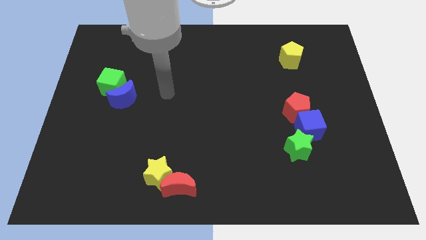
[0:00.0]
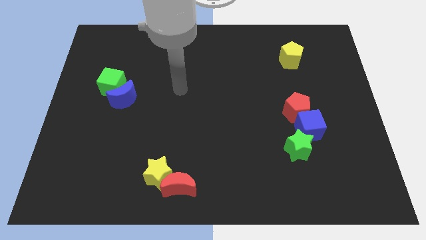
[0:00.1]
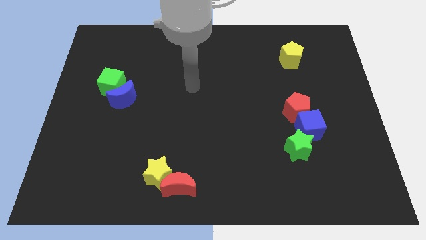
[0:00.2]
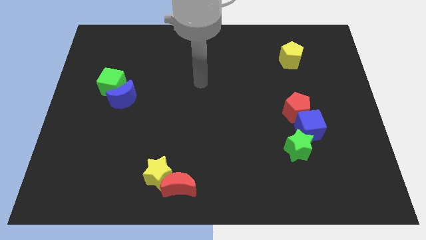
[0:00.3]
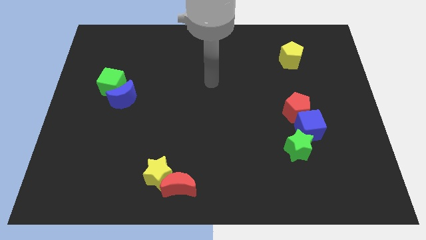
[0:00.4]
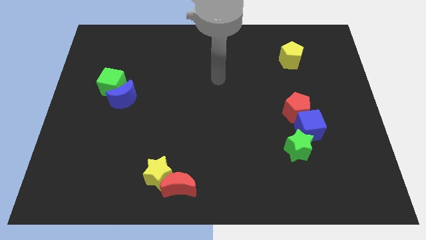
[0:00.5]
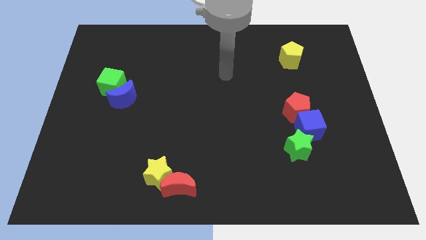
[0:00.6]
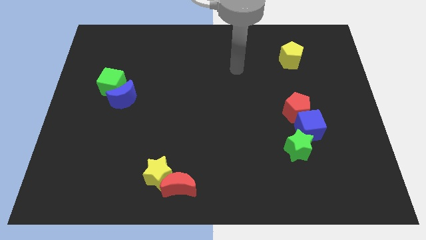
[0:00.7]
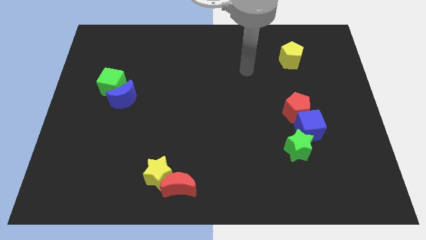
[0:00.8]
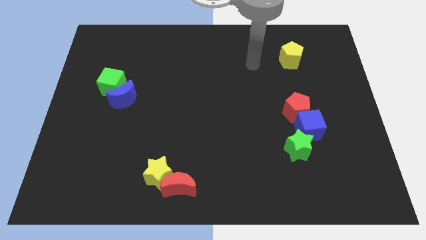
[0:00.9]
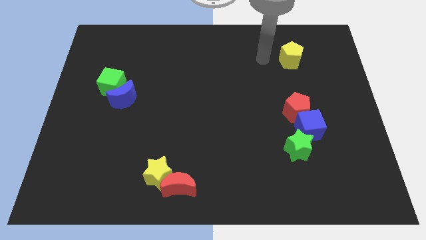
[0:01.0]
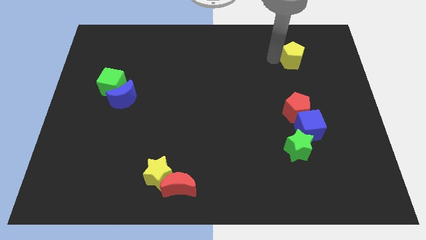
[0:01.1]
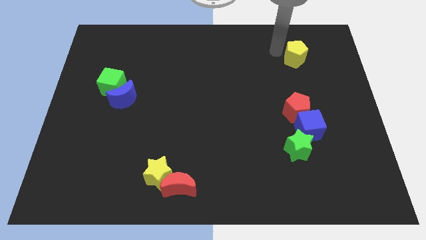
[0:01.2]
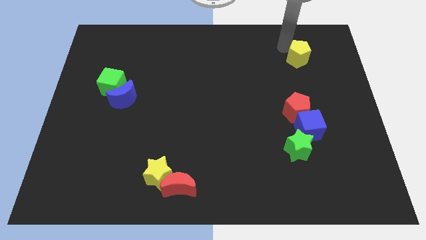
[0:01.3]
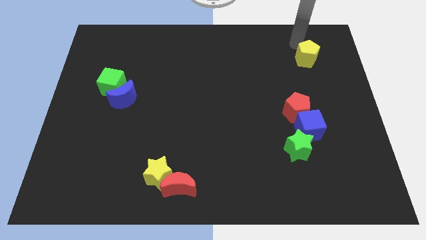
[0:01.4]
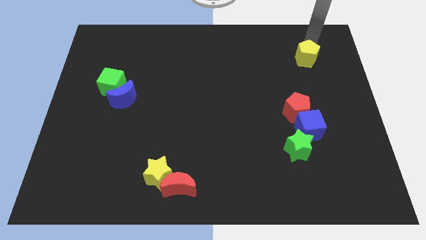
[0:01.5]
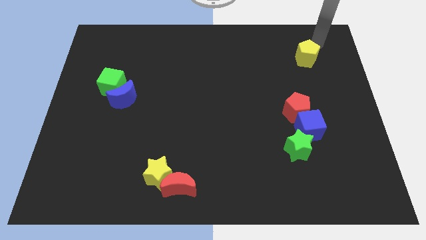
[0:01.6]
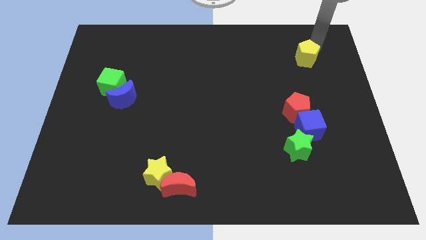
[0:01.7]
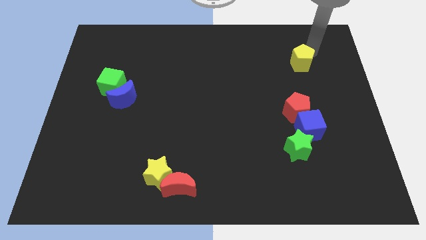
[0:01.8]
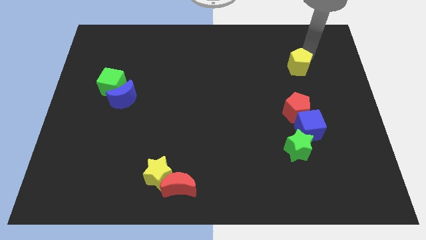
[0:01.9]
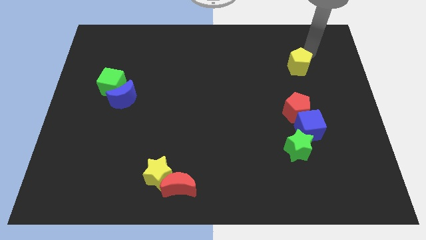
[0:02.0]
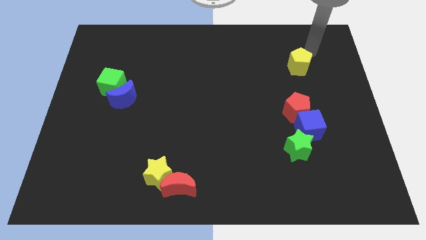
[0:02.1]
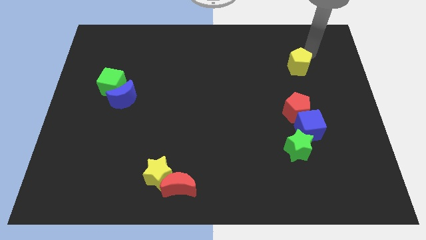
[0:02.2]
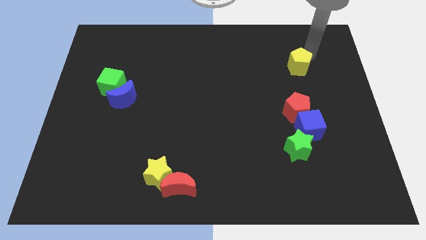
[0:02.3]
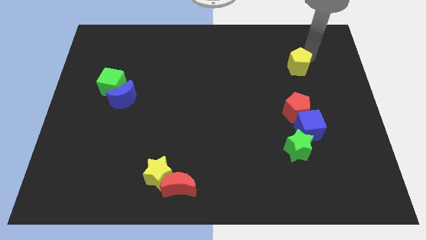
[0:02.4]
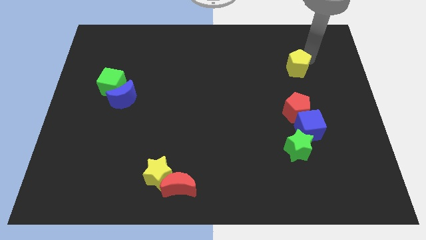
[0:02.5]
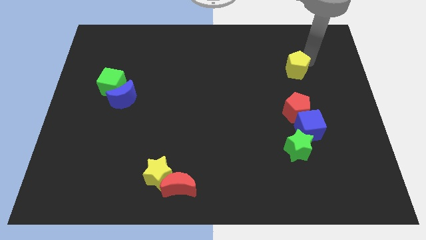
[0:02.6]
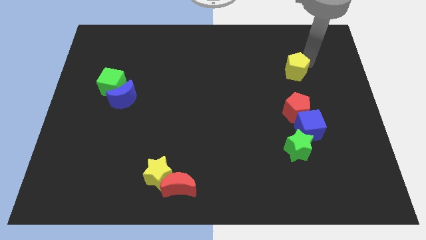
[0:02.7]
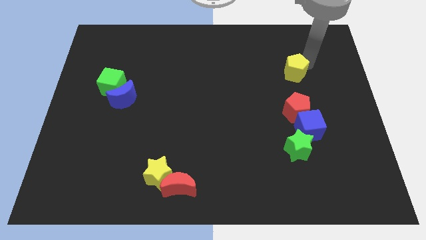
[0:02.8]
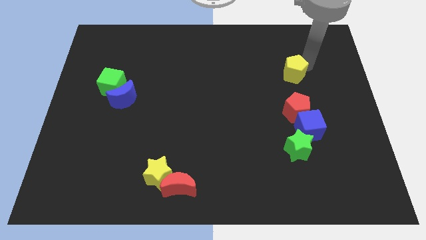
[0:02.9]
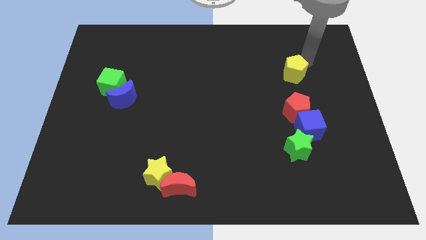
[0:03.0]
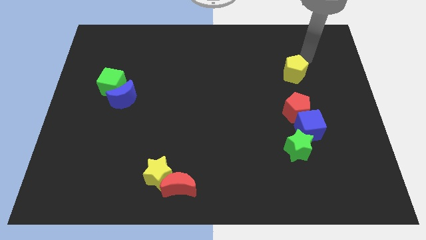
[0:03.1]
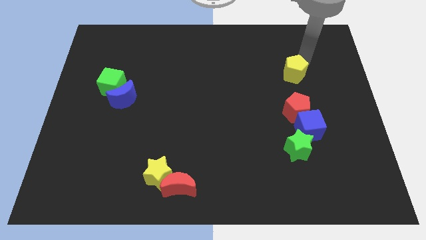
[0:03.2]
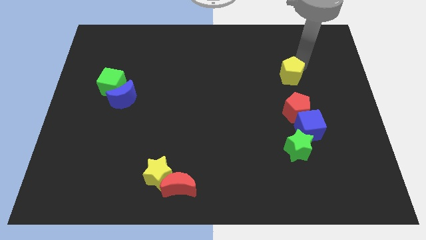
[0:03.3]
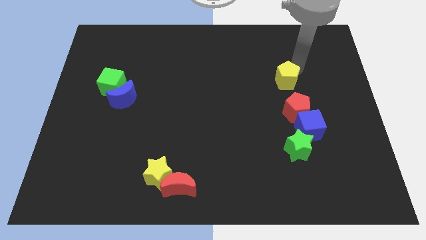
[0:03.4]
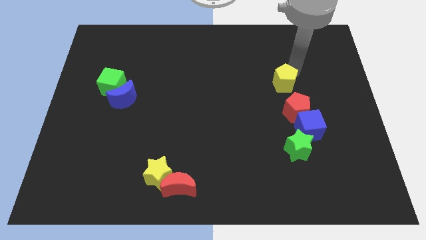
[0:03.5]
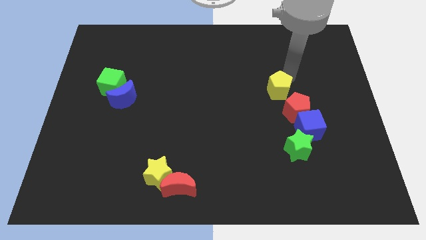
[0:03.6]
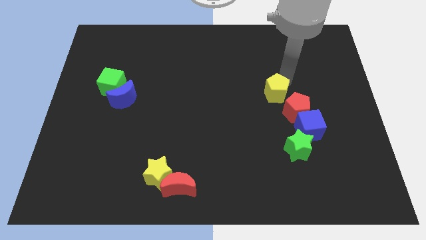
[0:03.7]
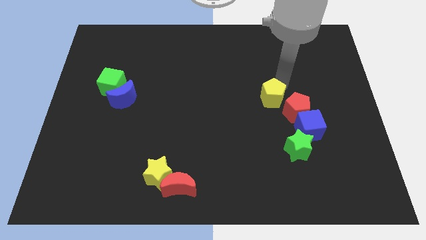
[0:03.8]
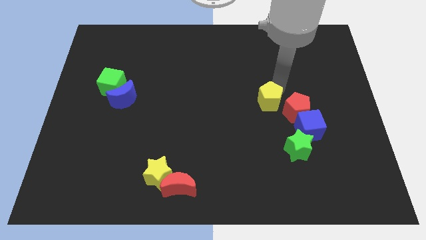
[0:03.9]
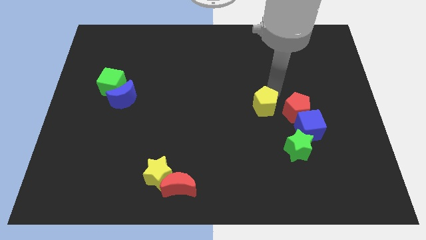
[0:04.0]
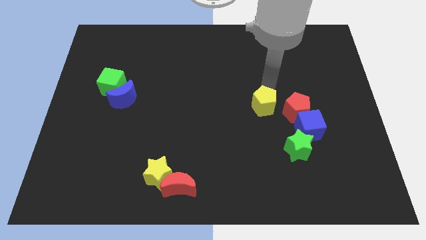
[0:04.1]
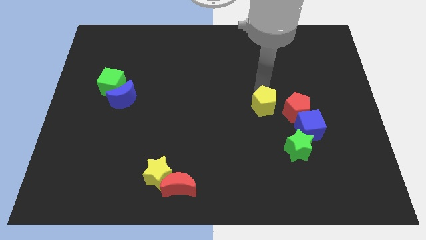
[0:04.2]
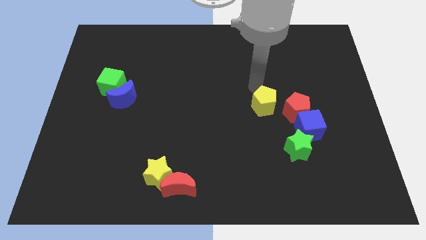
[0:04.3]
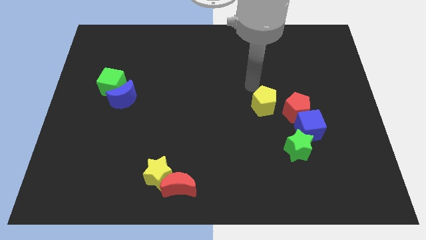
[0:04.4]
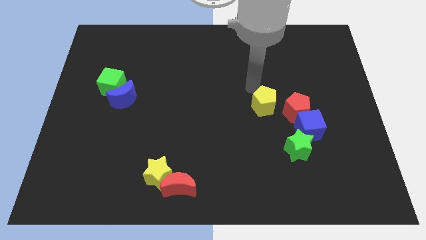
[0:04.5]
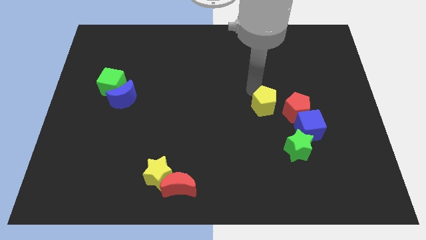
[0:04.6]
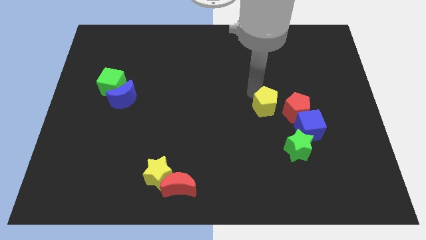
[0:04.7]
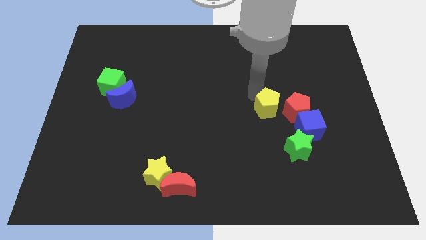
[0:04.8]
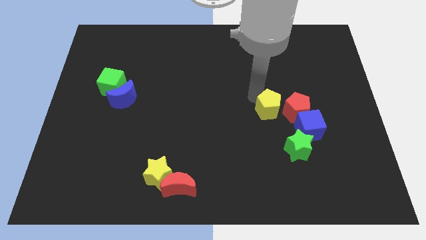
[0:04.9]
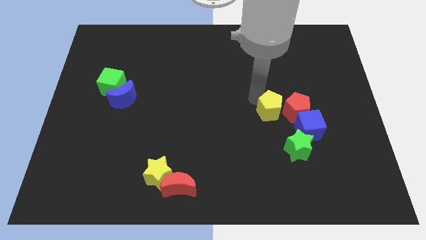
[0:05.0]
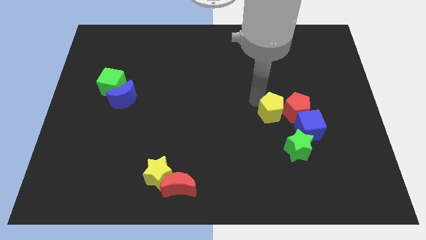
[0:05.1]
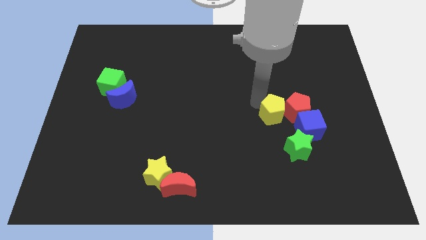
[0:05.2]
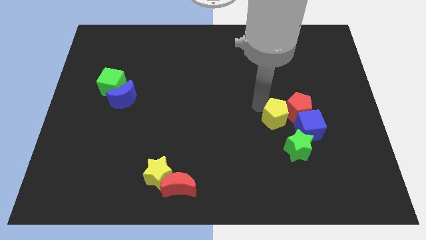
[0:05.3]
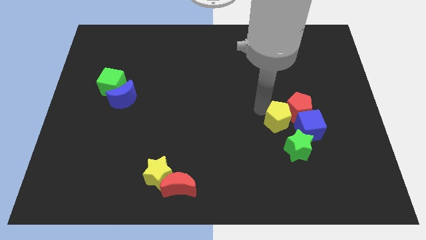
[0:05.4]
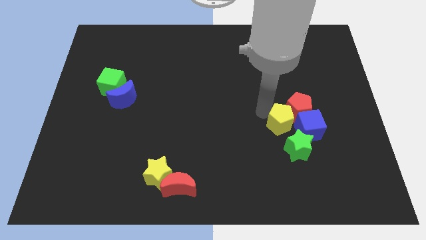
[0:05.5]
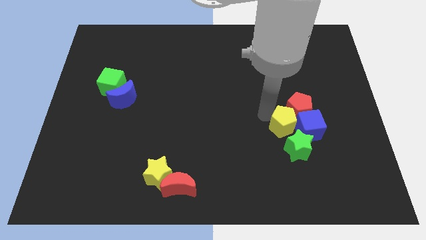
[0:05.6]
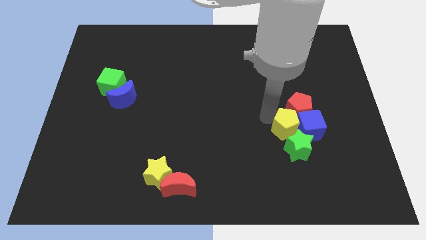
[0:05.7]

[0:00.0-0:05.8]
push the yellow pentagon to the green star

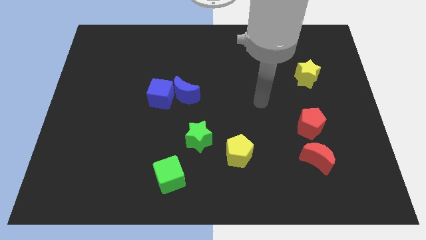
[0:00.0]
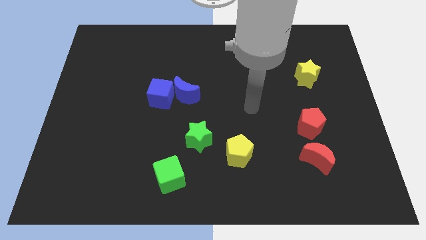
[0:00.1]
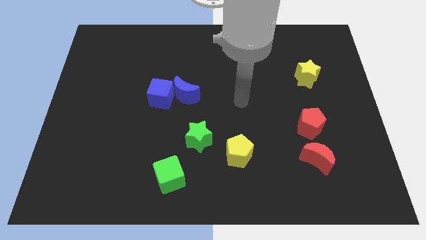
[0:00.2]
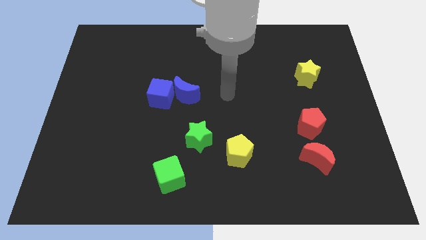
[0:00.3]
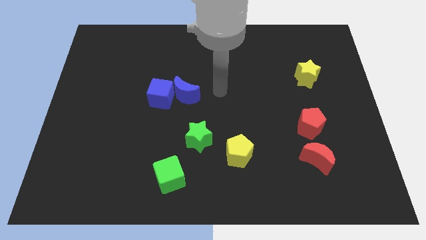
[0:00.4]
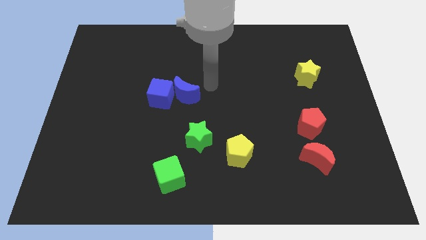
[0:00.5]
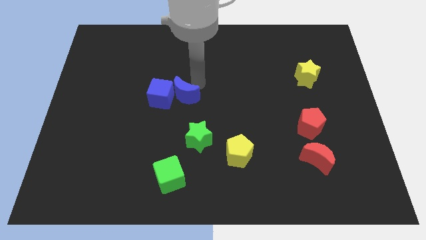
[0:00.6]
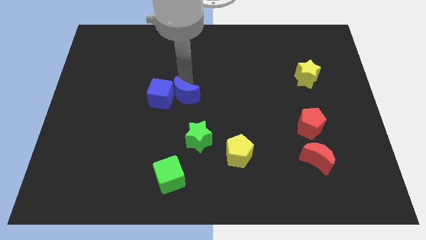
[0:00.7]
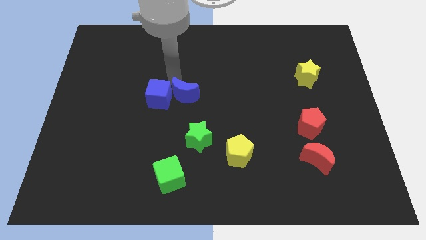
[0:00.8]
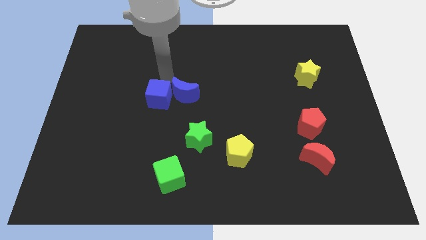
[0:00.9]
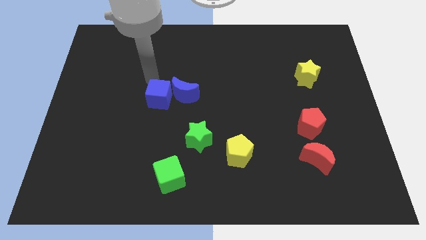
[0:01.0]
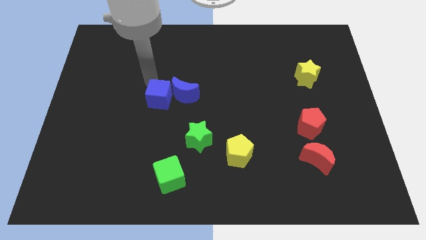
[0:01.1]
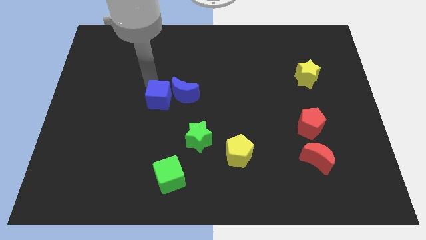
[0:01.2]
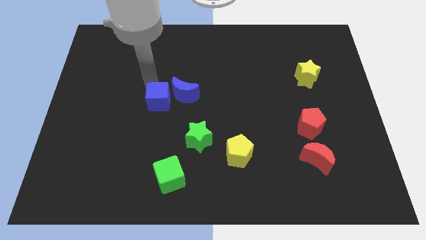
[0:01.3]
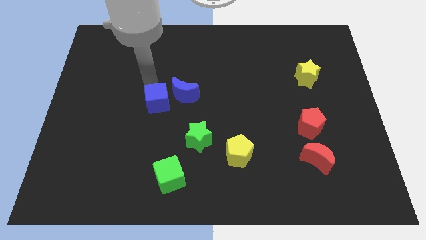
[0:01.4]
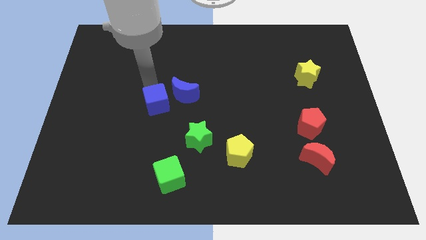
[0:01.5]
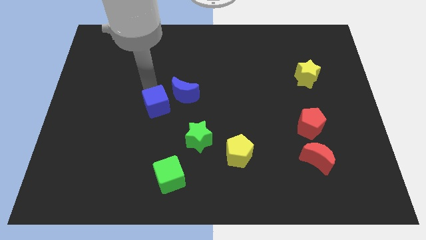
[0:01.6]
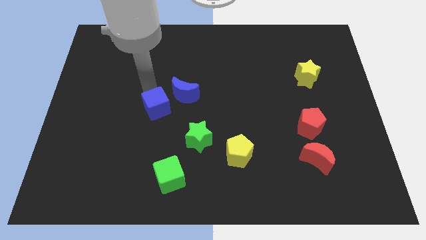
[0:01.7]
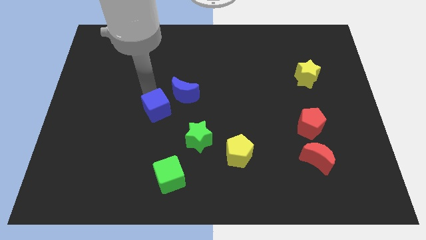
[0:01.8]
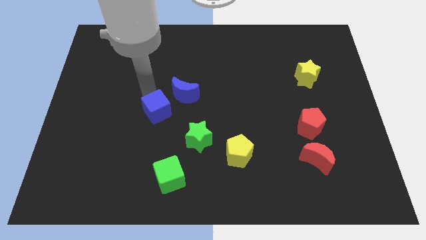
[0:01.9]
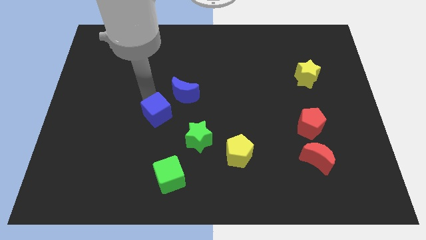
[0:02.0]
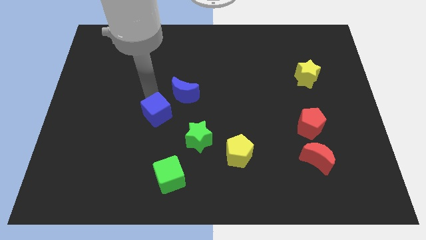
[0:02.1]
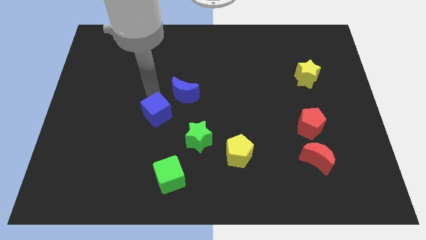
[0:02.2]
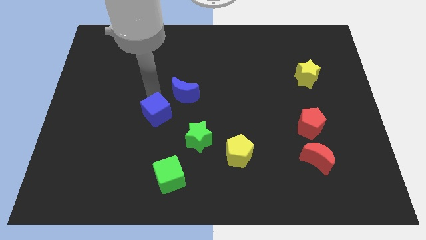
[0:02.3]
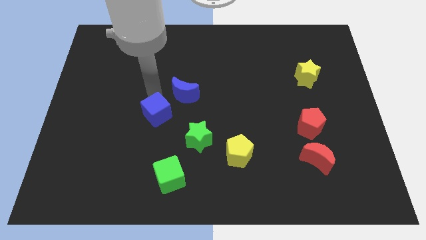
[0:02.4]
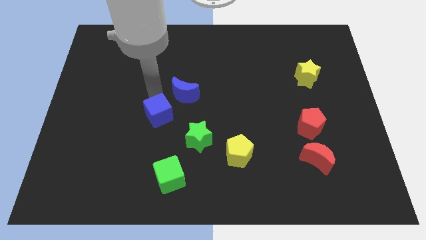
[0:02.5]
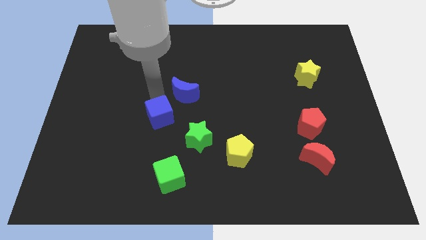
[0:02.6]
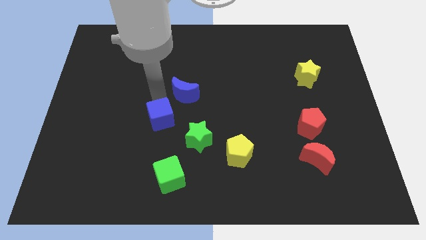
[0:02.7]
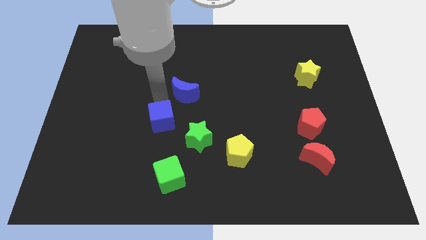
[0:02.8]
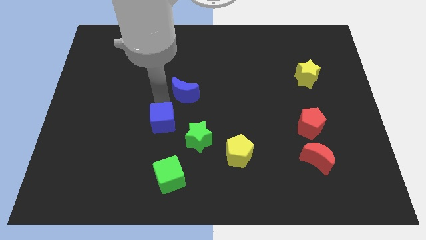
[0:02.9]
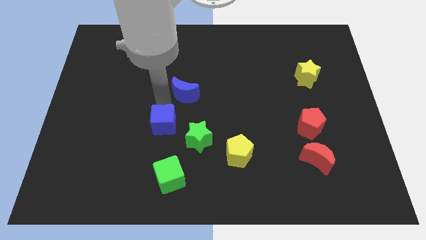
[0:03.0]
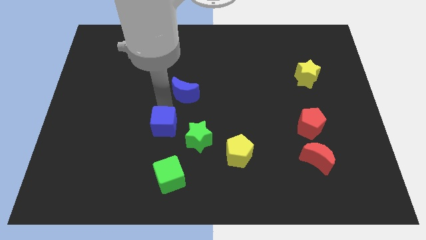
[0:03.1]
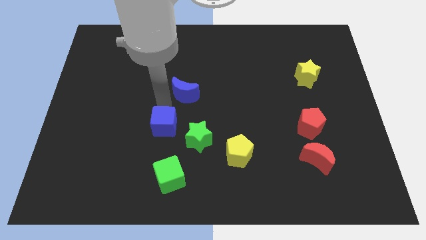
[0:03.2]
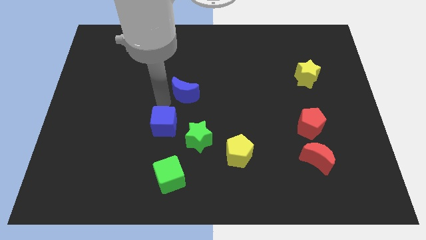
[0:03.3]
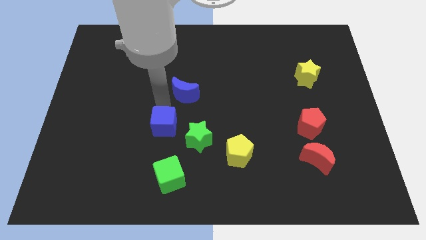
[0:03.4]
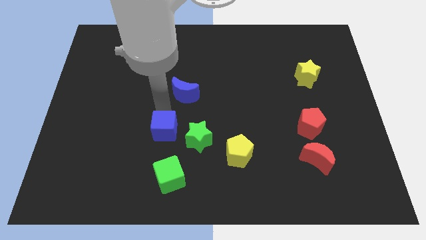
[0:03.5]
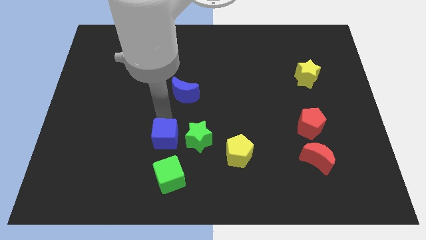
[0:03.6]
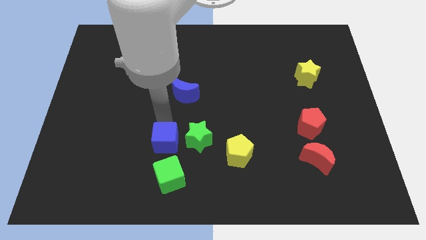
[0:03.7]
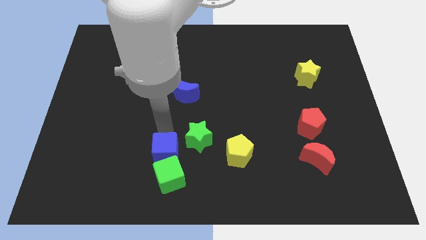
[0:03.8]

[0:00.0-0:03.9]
put the blue cube close to the green cube
